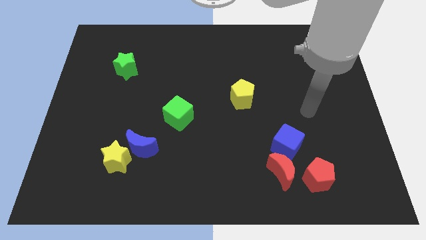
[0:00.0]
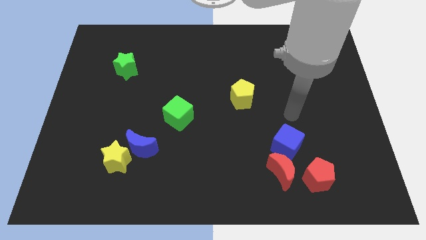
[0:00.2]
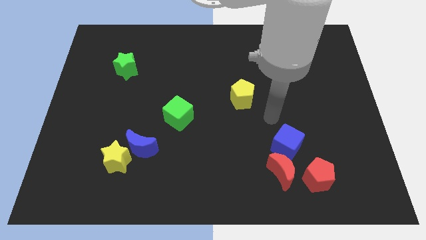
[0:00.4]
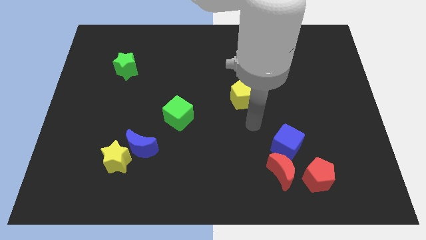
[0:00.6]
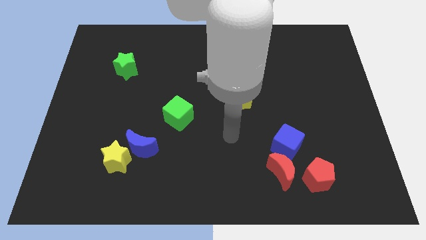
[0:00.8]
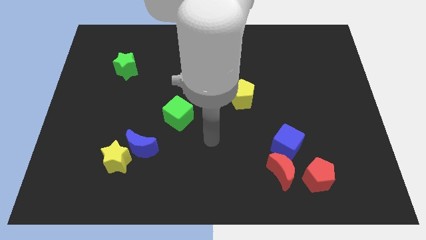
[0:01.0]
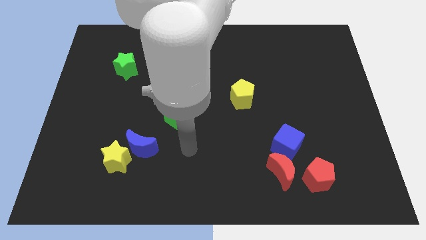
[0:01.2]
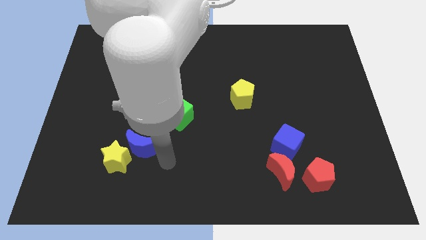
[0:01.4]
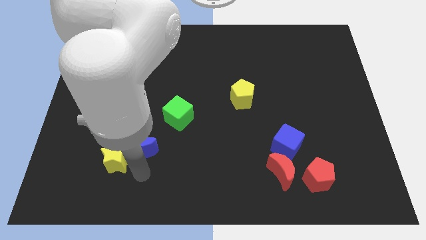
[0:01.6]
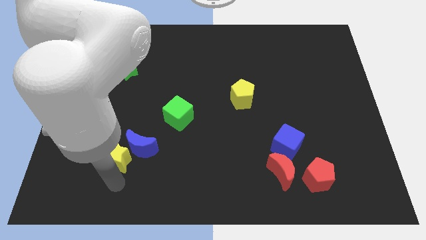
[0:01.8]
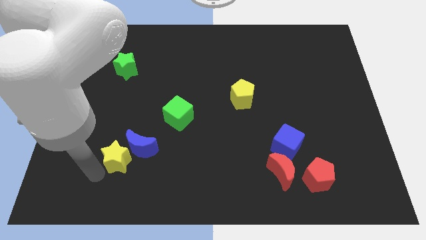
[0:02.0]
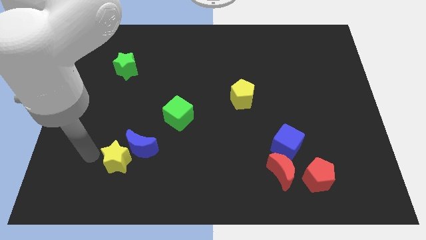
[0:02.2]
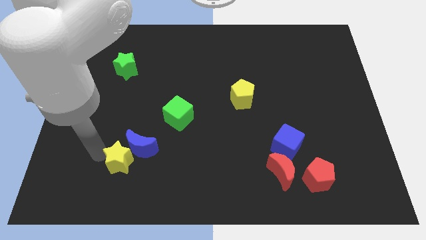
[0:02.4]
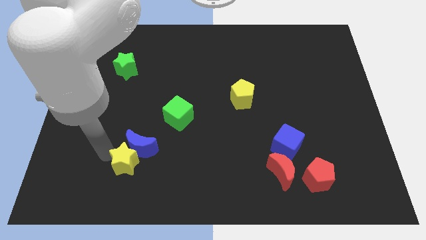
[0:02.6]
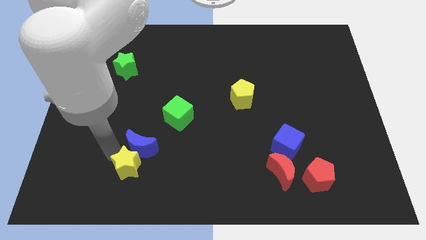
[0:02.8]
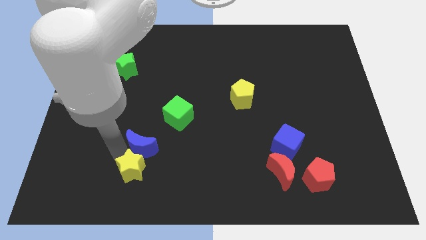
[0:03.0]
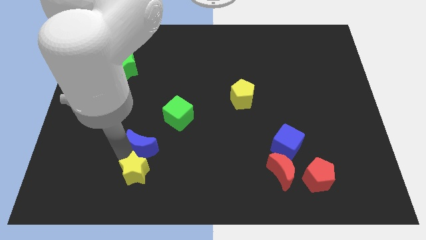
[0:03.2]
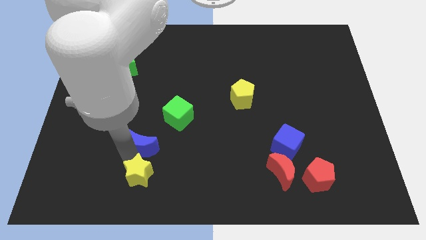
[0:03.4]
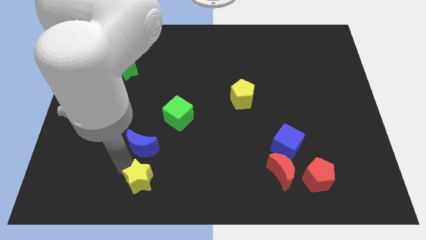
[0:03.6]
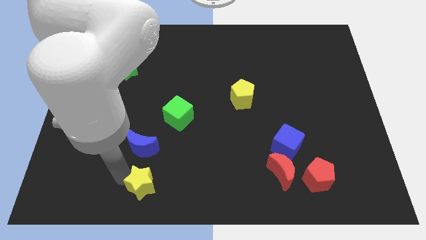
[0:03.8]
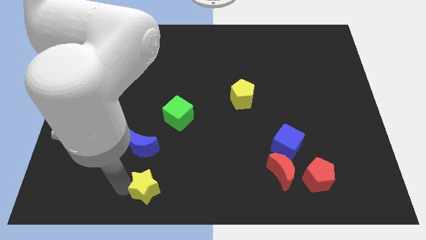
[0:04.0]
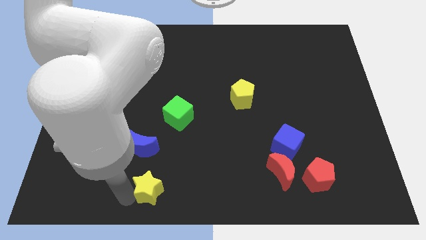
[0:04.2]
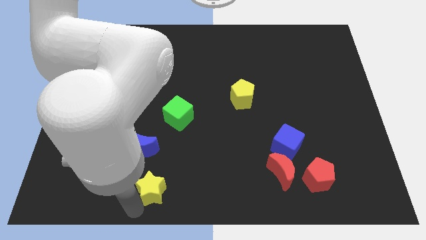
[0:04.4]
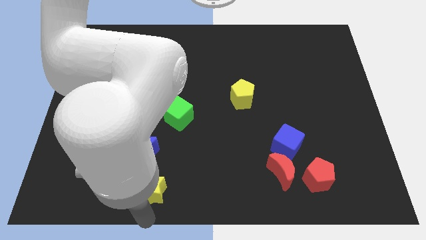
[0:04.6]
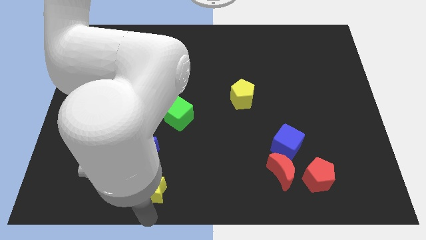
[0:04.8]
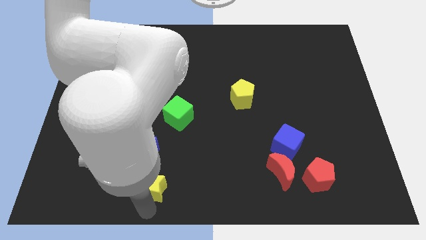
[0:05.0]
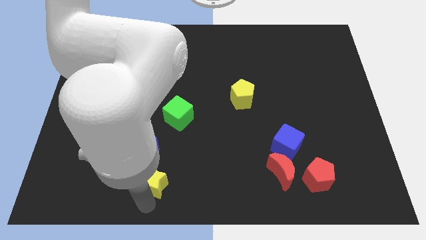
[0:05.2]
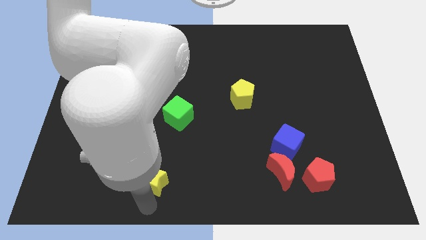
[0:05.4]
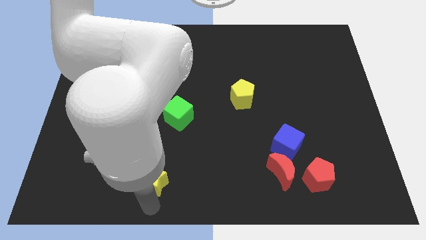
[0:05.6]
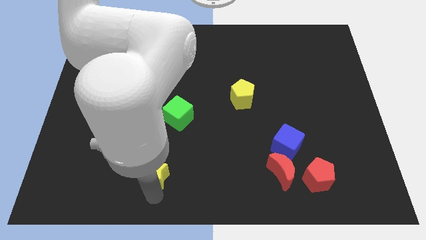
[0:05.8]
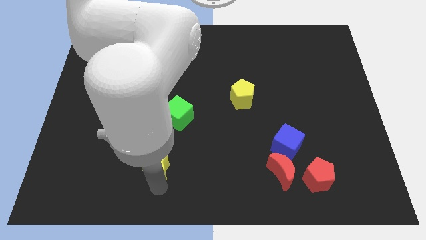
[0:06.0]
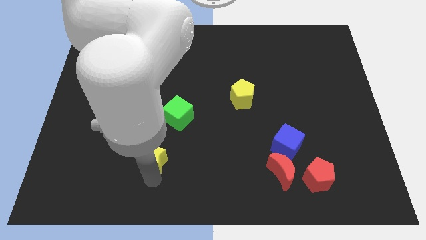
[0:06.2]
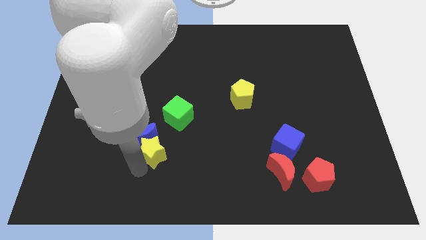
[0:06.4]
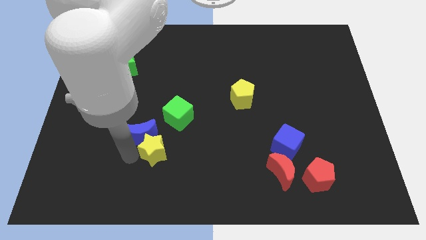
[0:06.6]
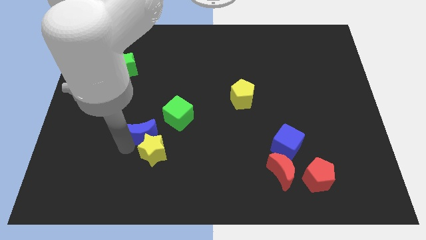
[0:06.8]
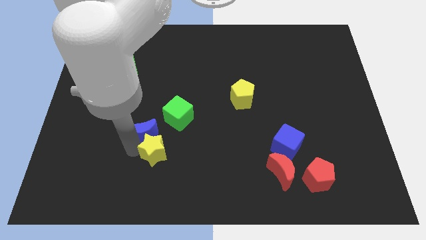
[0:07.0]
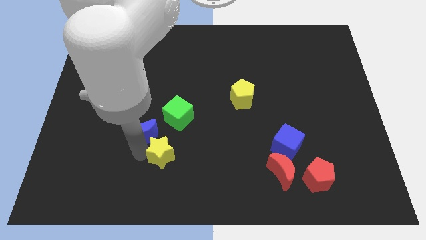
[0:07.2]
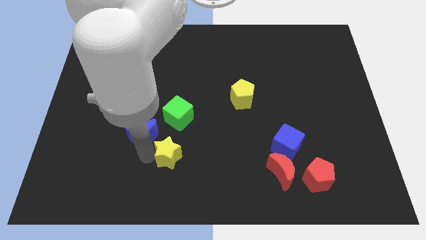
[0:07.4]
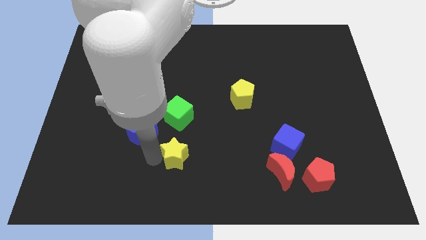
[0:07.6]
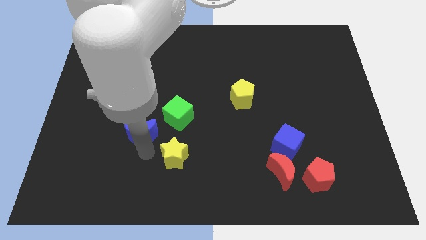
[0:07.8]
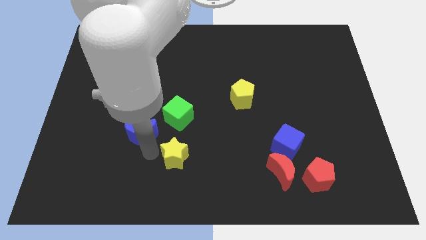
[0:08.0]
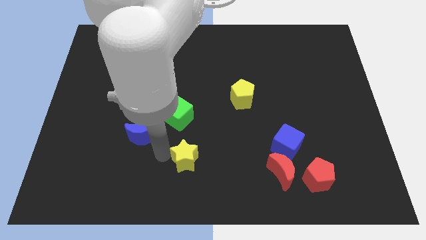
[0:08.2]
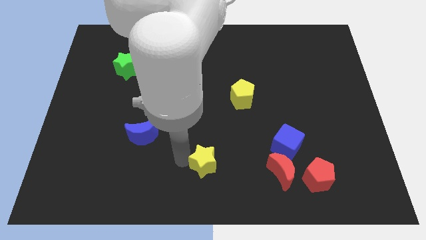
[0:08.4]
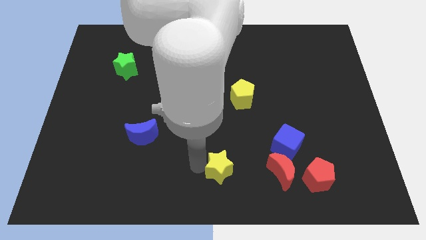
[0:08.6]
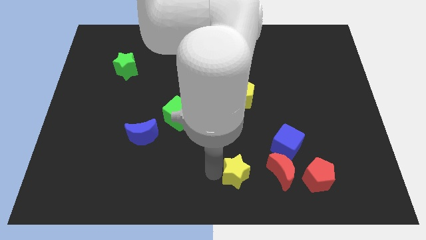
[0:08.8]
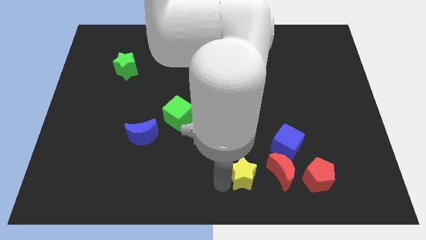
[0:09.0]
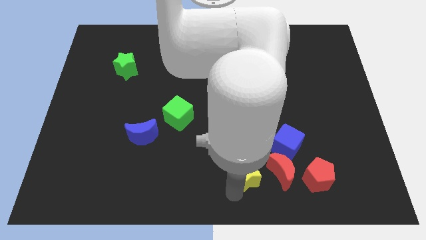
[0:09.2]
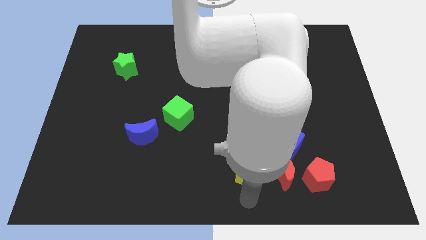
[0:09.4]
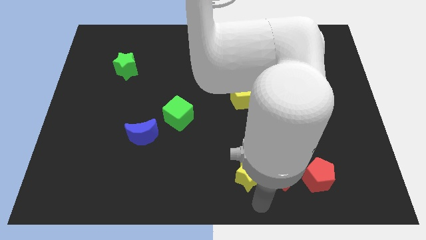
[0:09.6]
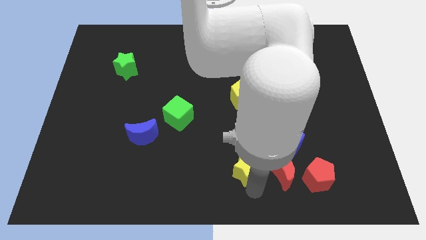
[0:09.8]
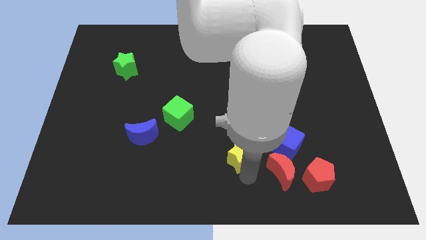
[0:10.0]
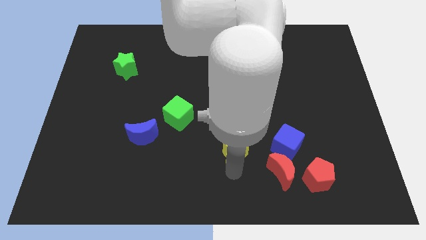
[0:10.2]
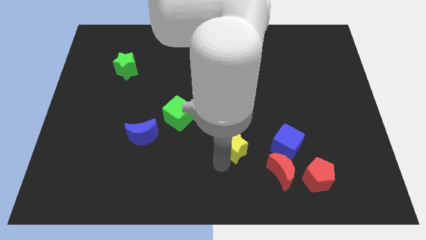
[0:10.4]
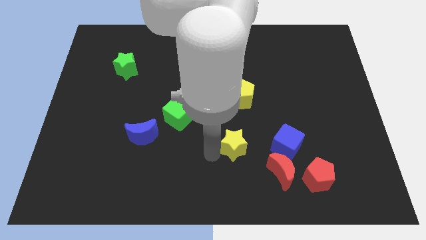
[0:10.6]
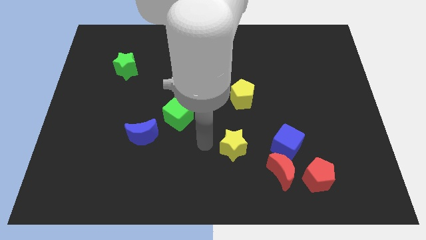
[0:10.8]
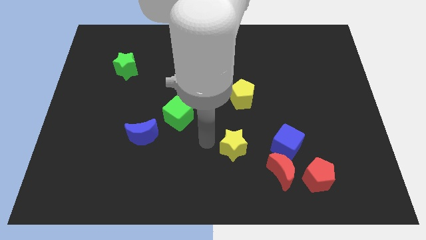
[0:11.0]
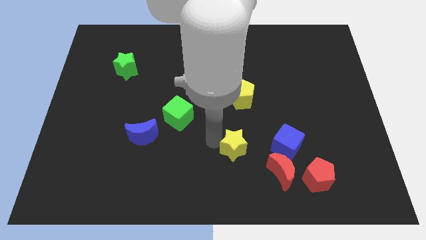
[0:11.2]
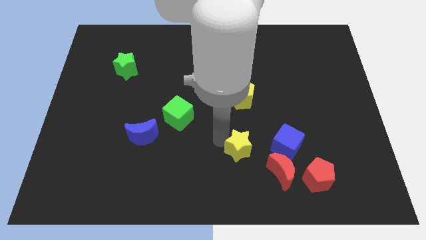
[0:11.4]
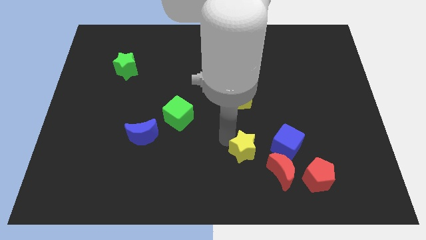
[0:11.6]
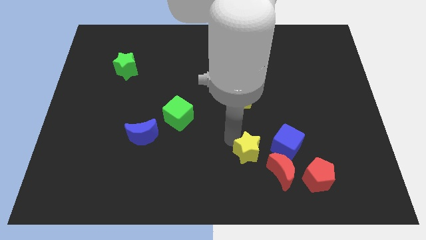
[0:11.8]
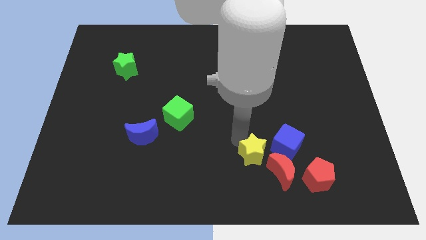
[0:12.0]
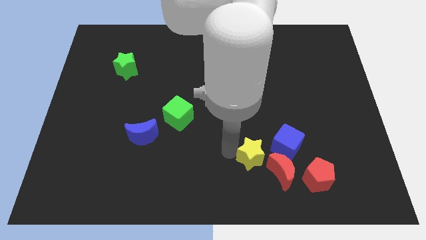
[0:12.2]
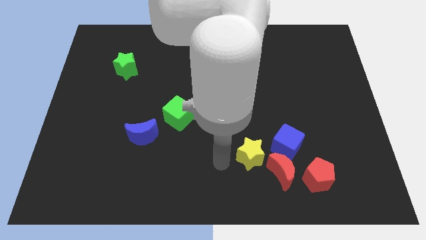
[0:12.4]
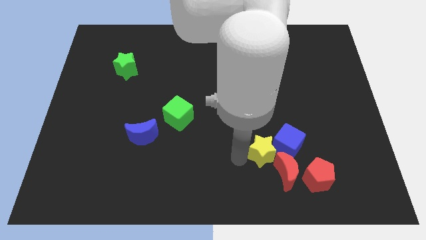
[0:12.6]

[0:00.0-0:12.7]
slide the yellow star next to the blue cube

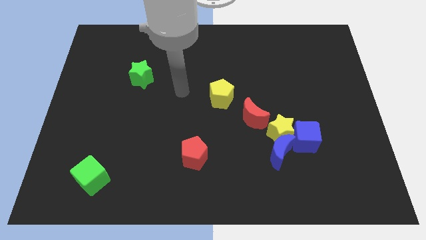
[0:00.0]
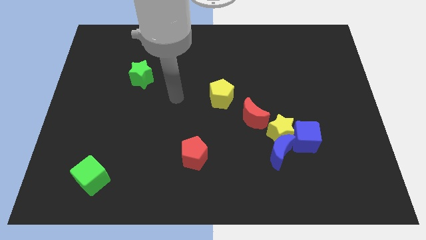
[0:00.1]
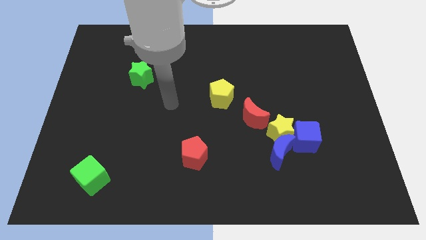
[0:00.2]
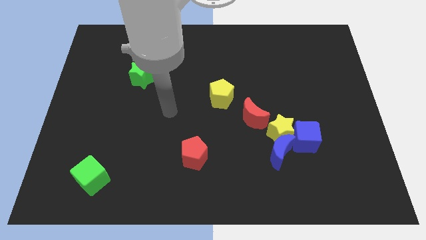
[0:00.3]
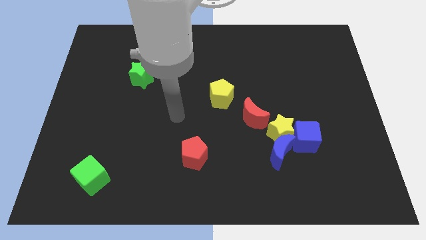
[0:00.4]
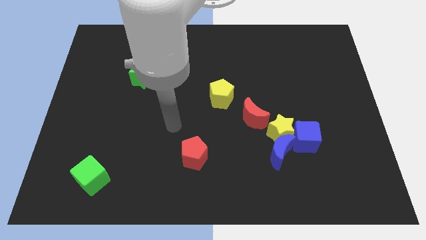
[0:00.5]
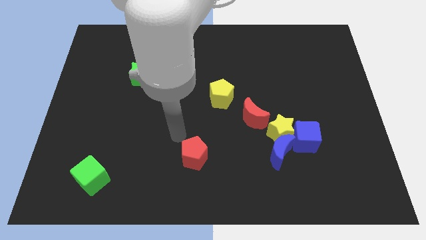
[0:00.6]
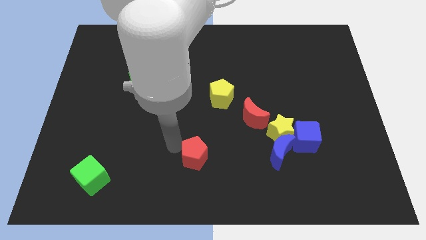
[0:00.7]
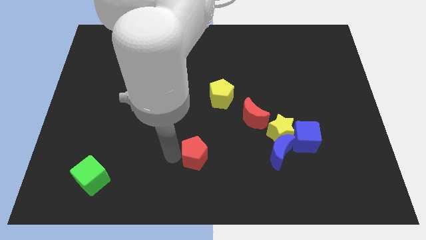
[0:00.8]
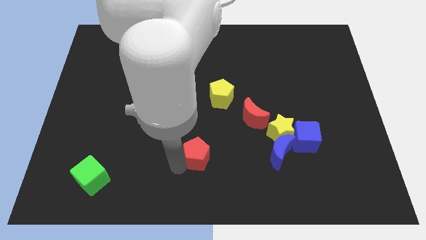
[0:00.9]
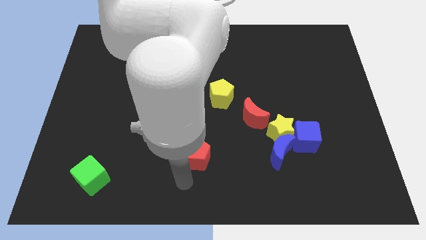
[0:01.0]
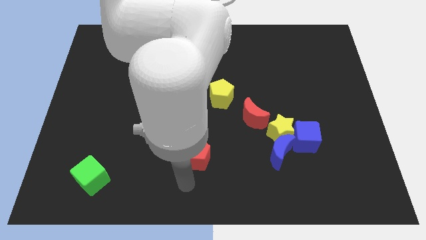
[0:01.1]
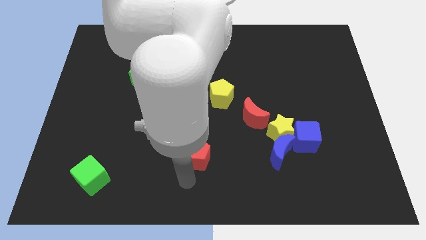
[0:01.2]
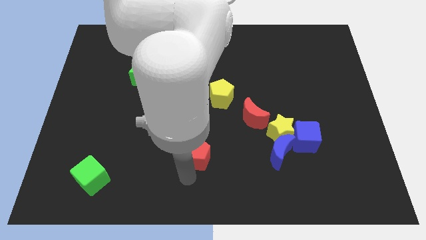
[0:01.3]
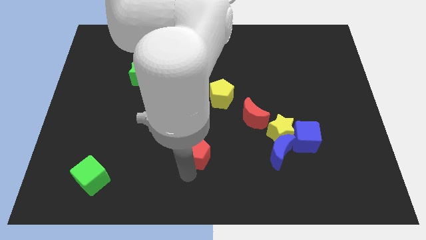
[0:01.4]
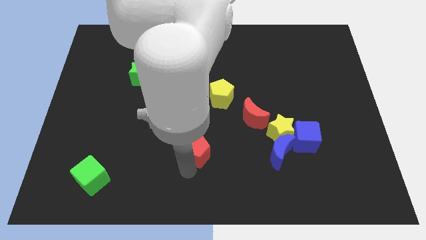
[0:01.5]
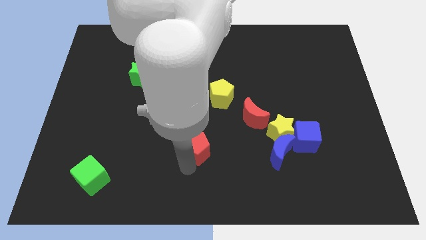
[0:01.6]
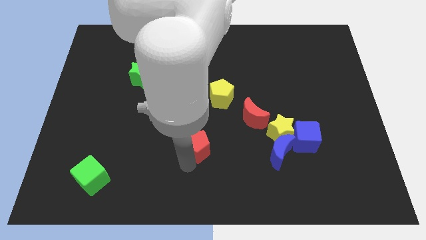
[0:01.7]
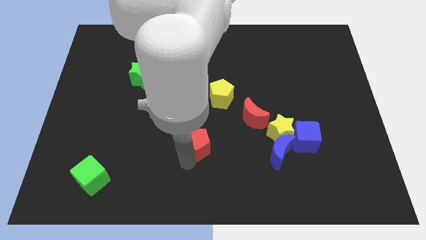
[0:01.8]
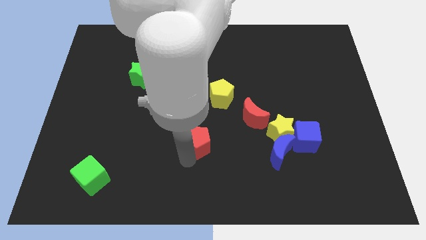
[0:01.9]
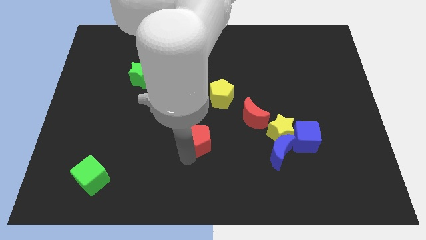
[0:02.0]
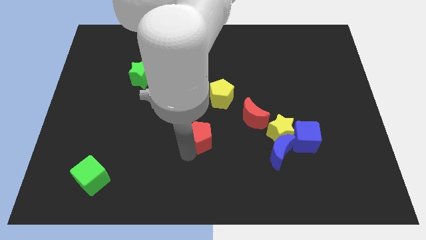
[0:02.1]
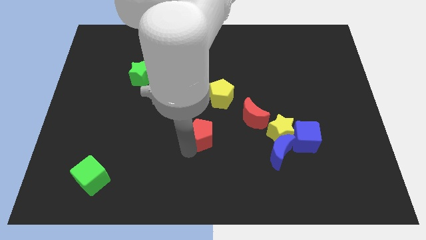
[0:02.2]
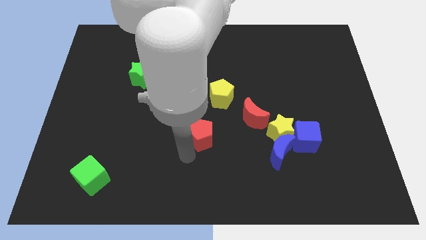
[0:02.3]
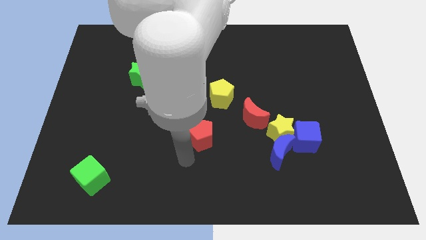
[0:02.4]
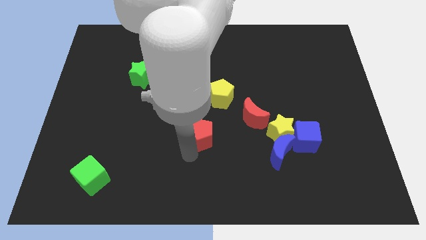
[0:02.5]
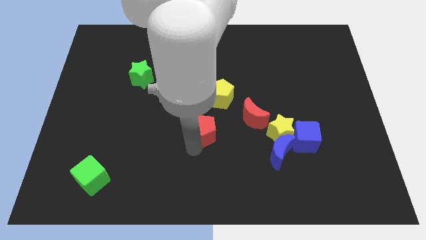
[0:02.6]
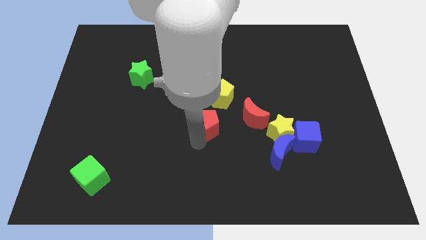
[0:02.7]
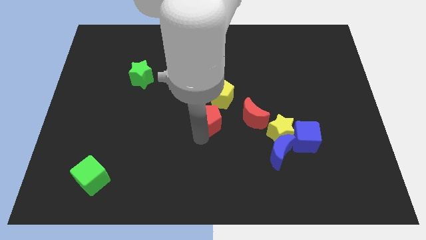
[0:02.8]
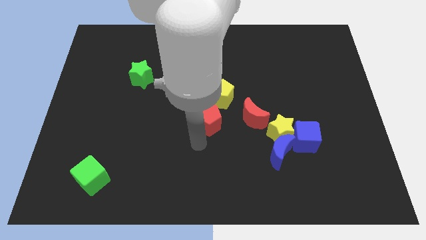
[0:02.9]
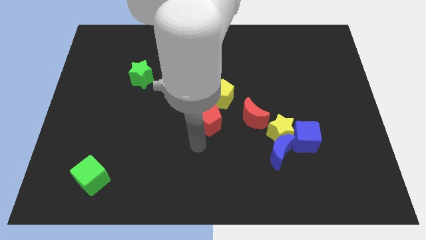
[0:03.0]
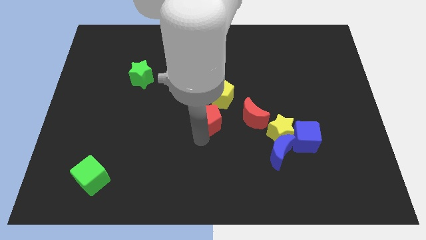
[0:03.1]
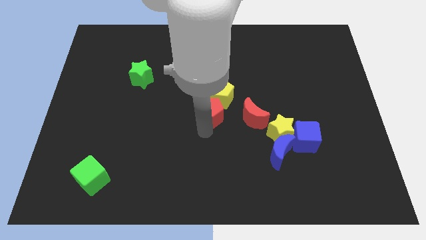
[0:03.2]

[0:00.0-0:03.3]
slide the red pentagon next to the yellow pentagon
